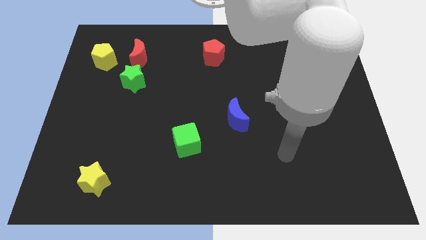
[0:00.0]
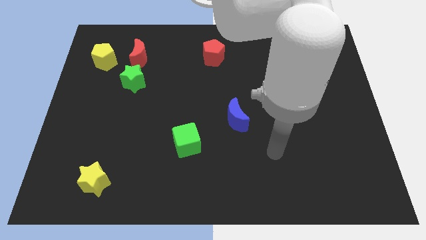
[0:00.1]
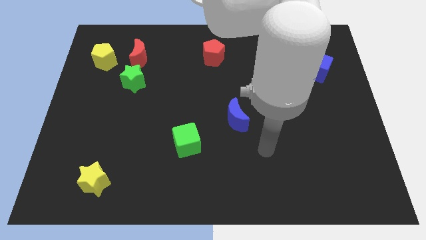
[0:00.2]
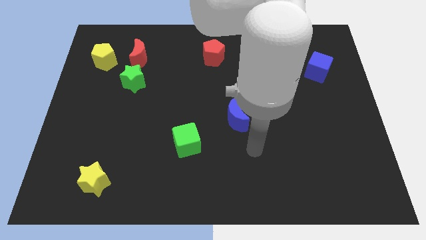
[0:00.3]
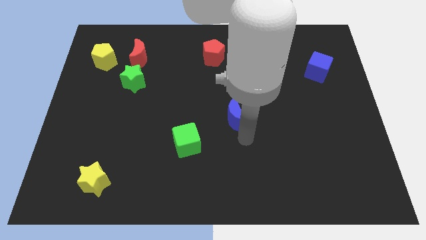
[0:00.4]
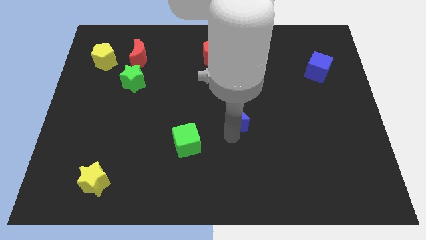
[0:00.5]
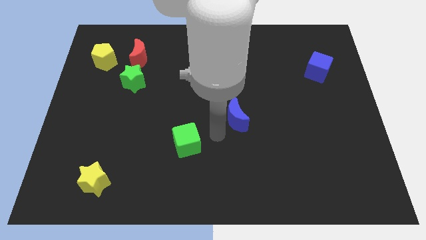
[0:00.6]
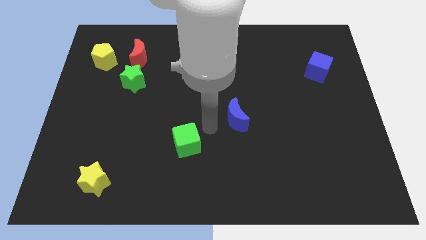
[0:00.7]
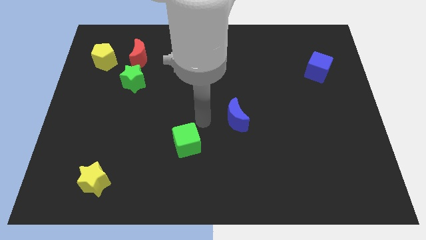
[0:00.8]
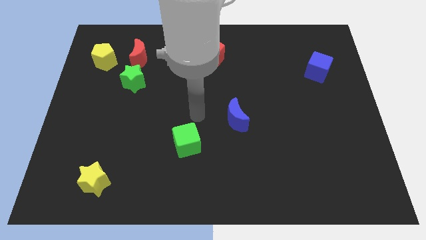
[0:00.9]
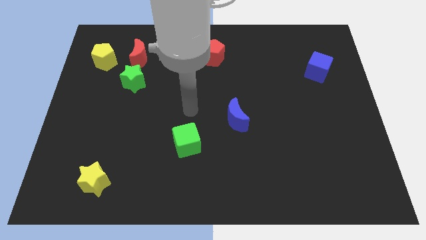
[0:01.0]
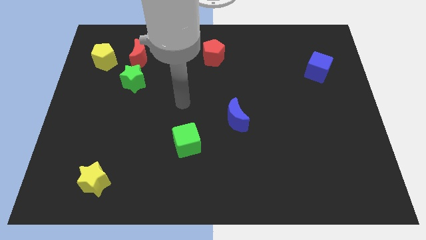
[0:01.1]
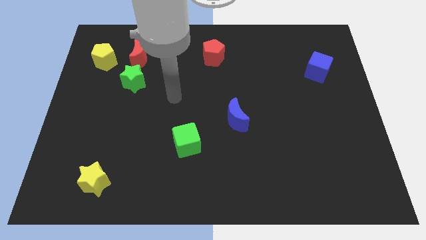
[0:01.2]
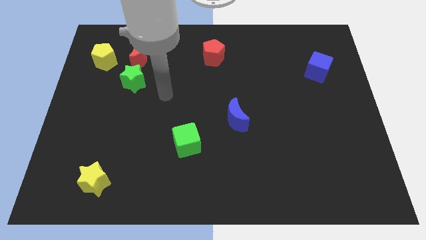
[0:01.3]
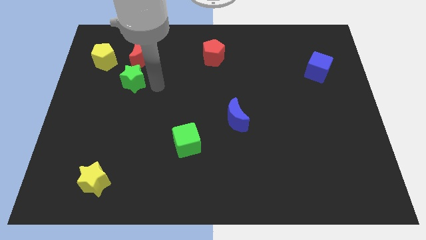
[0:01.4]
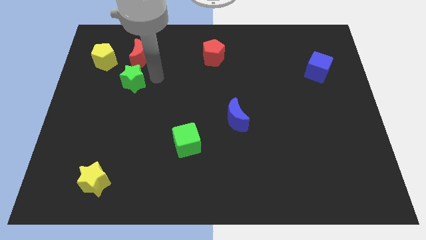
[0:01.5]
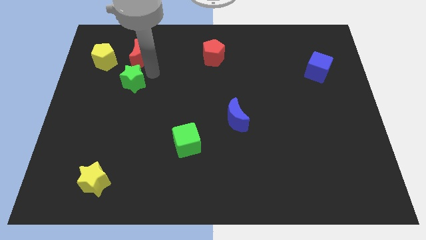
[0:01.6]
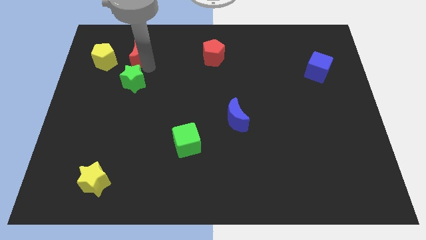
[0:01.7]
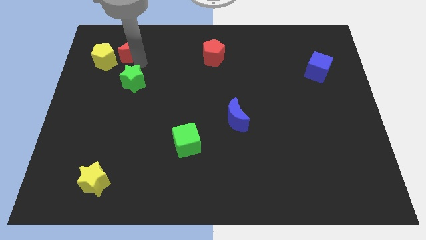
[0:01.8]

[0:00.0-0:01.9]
pull the green star apart from the red moon

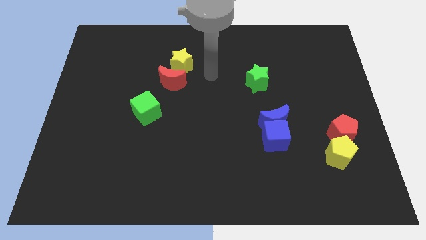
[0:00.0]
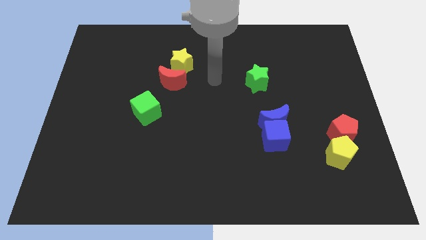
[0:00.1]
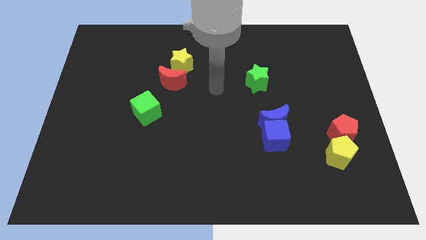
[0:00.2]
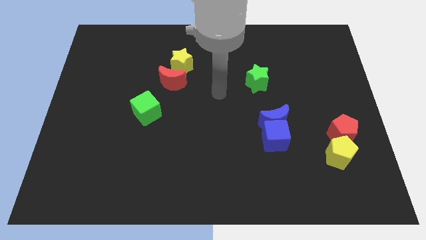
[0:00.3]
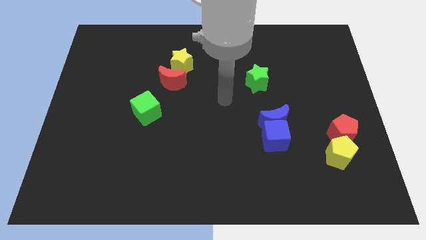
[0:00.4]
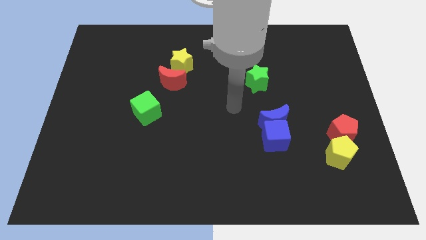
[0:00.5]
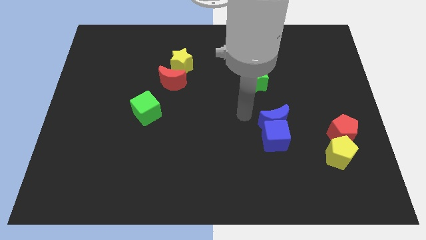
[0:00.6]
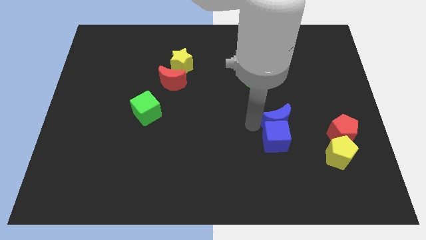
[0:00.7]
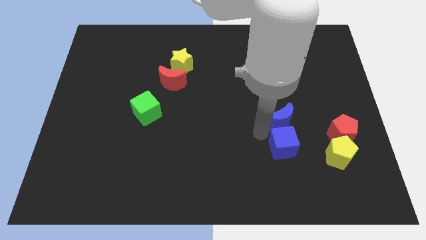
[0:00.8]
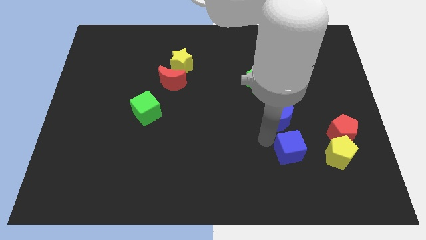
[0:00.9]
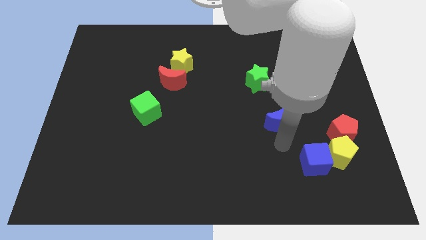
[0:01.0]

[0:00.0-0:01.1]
separate the blue moon from the blue cube

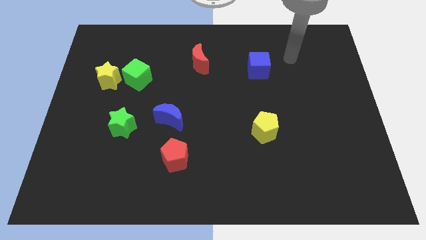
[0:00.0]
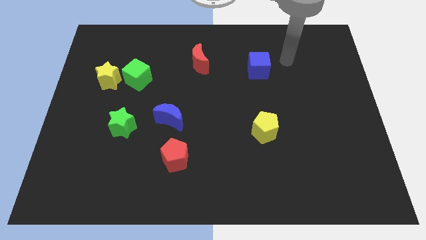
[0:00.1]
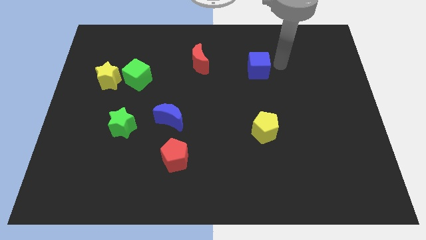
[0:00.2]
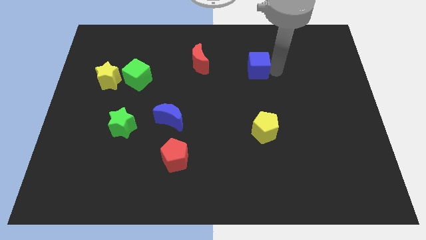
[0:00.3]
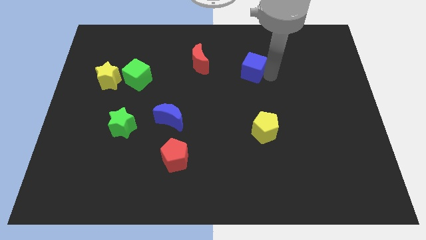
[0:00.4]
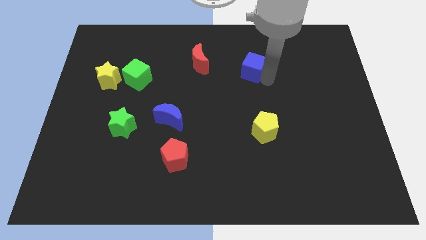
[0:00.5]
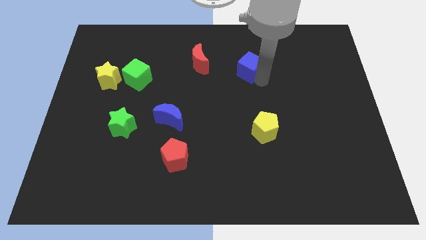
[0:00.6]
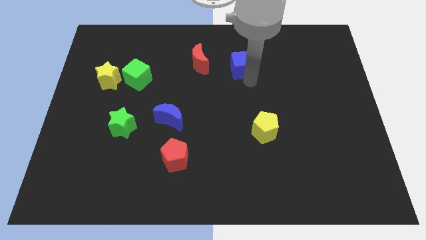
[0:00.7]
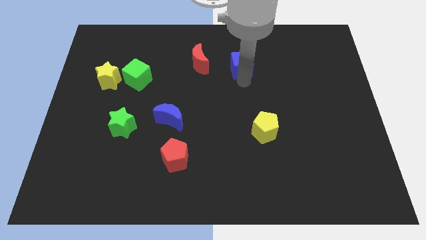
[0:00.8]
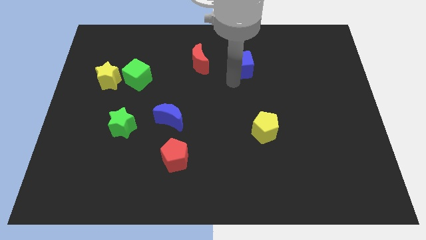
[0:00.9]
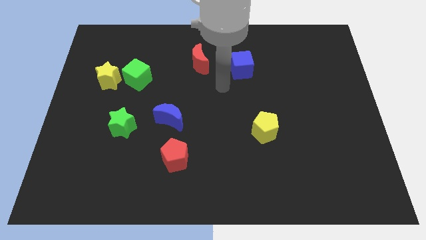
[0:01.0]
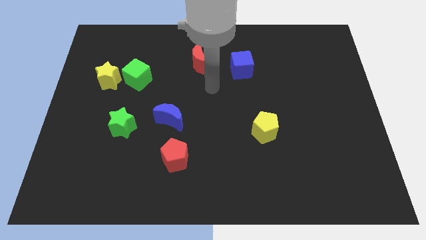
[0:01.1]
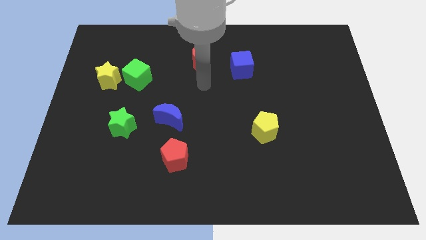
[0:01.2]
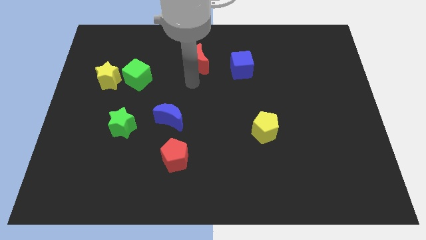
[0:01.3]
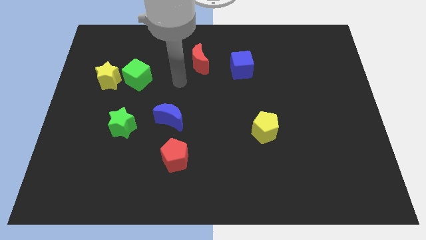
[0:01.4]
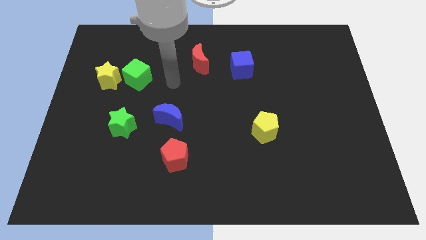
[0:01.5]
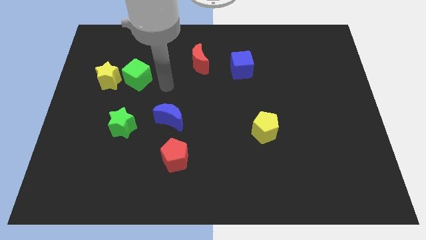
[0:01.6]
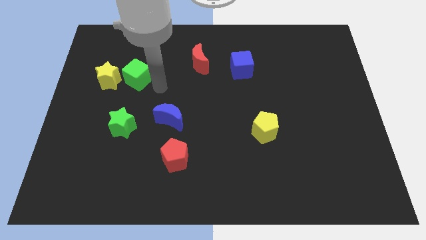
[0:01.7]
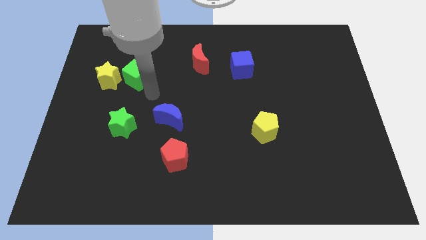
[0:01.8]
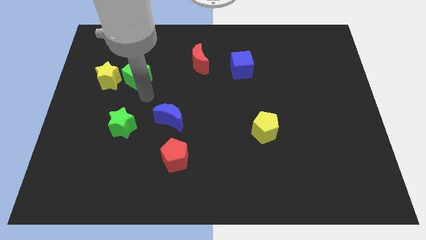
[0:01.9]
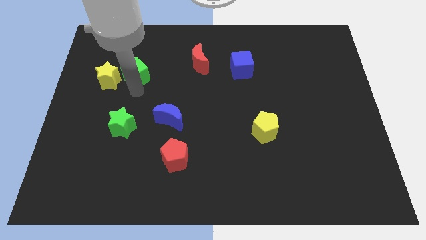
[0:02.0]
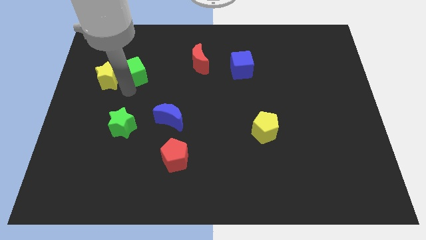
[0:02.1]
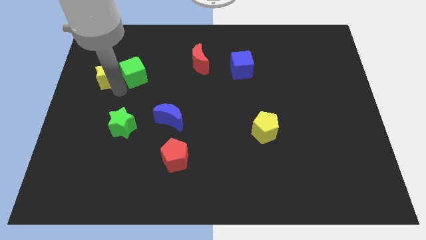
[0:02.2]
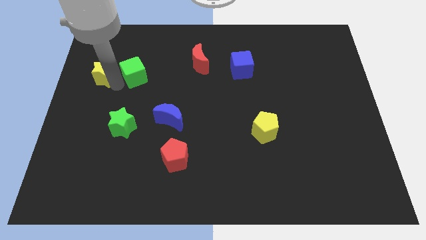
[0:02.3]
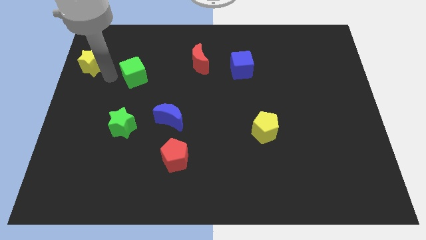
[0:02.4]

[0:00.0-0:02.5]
pull the green cube apart from the yellow star

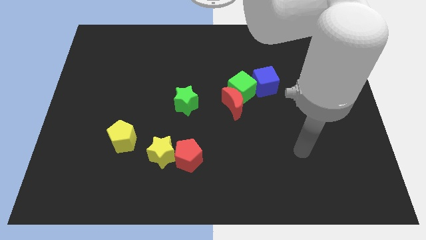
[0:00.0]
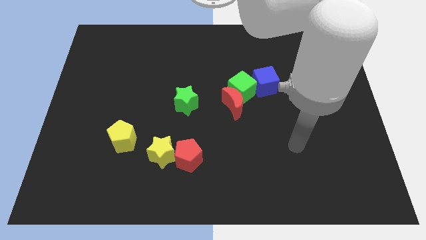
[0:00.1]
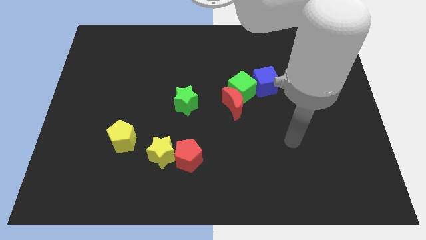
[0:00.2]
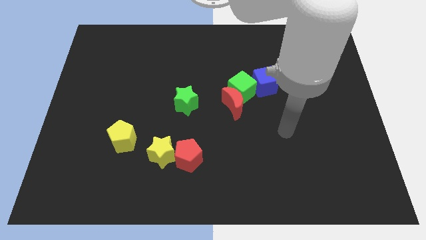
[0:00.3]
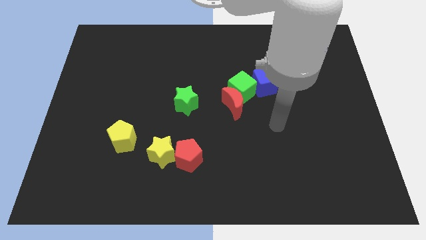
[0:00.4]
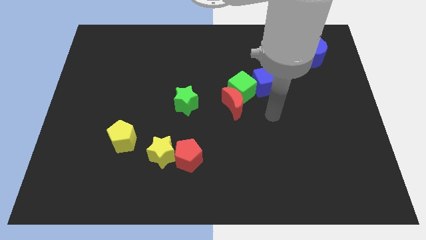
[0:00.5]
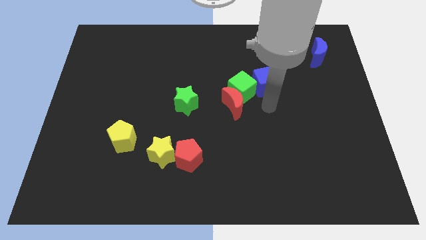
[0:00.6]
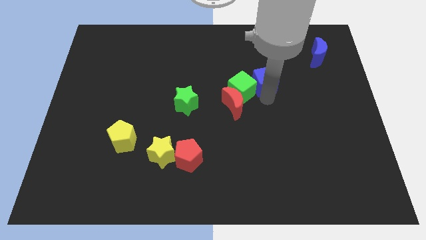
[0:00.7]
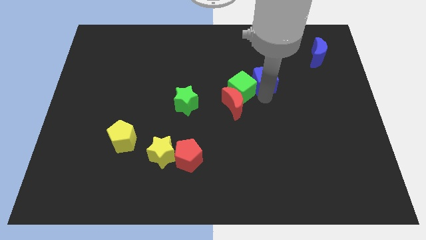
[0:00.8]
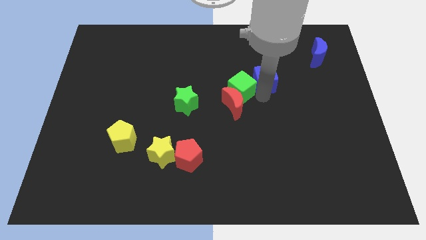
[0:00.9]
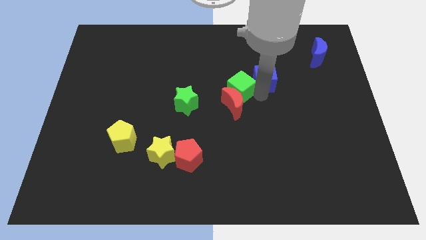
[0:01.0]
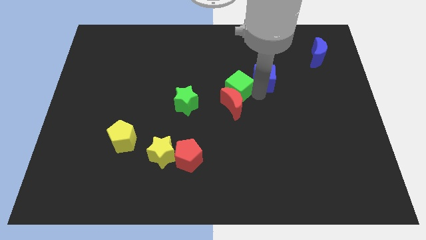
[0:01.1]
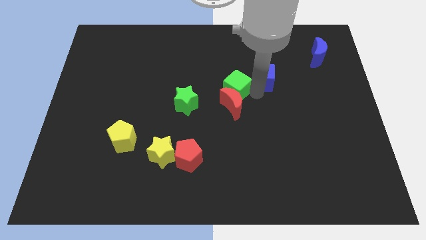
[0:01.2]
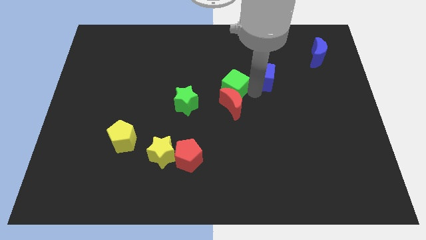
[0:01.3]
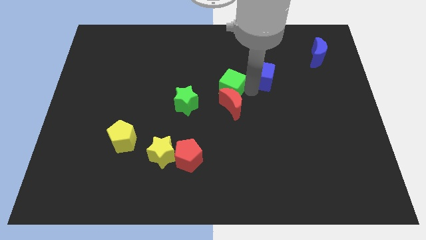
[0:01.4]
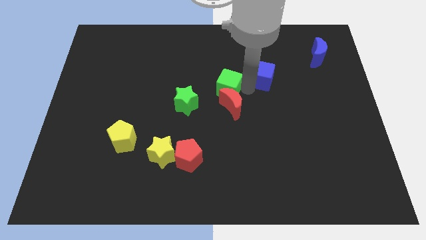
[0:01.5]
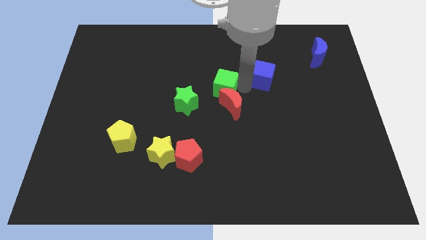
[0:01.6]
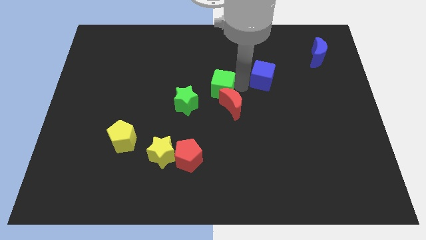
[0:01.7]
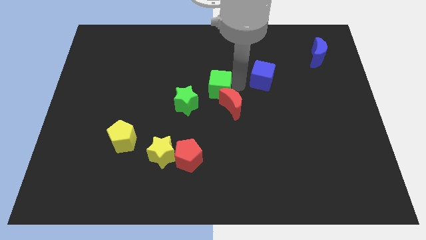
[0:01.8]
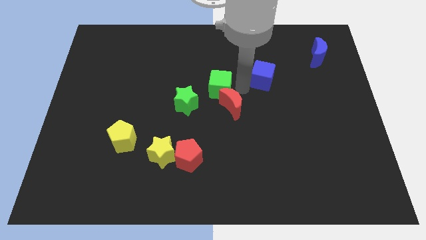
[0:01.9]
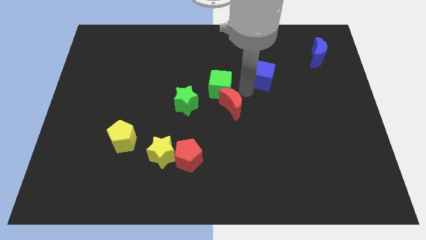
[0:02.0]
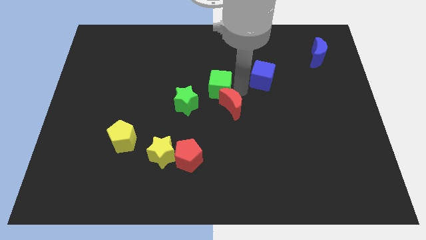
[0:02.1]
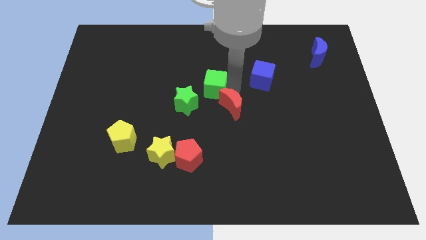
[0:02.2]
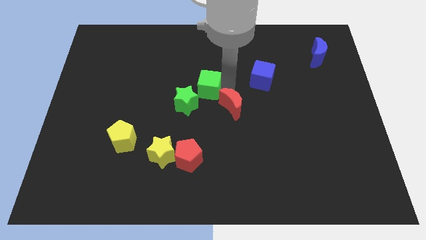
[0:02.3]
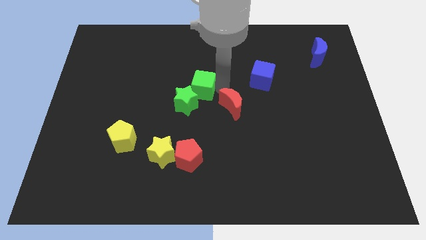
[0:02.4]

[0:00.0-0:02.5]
separate the green cube from the red moon and blue cube

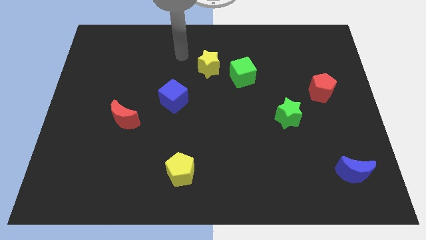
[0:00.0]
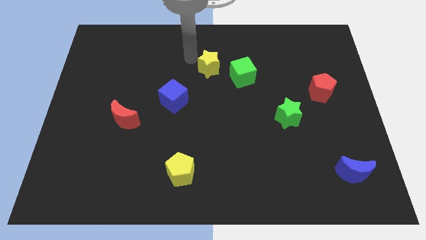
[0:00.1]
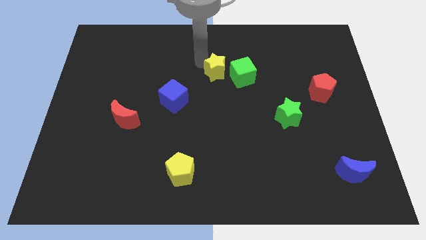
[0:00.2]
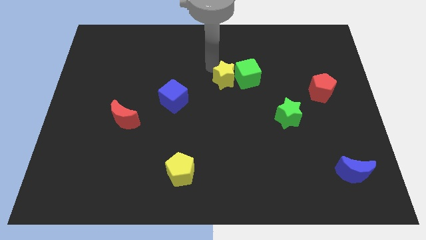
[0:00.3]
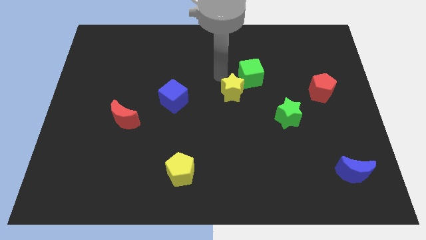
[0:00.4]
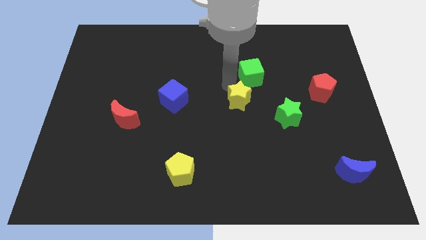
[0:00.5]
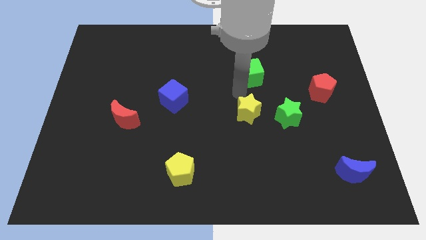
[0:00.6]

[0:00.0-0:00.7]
move the green cube away from the yellow star

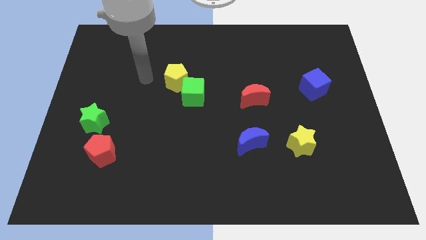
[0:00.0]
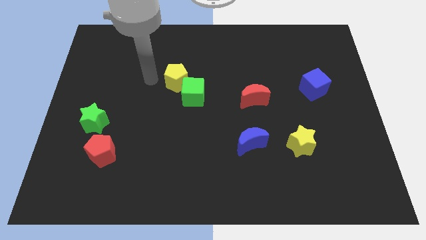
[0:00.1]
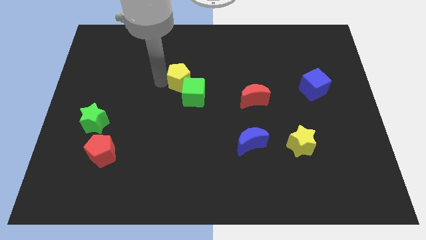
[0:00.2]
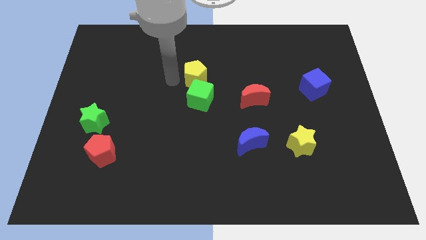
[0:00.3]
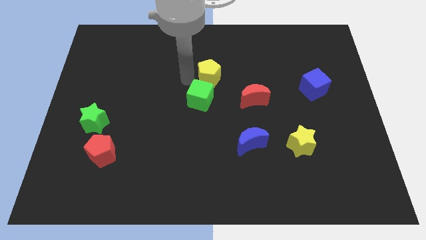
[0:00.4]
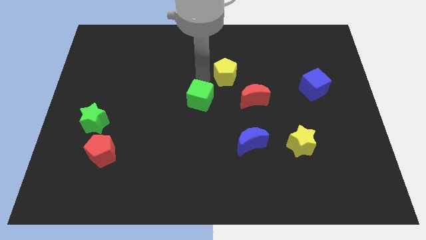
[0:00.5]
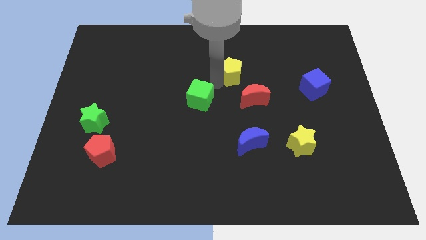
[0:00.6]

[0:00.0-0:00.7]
move the green cube away from the yellow pentagon
